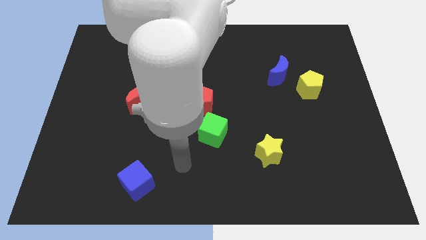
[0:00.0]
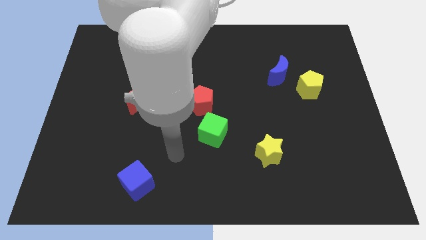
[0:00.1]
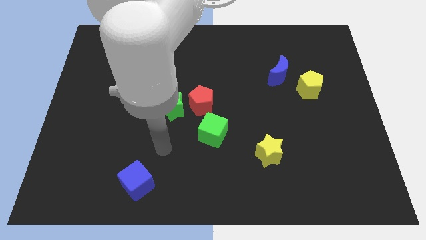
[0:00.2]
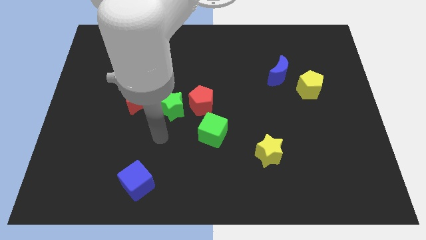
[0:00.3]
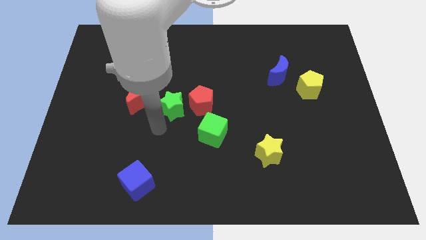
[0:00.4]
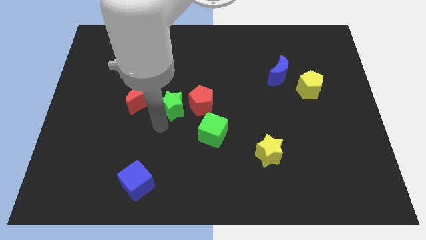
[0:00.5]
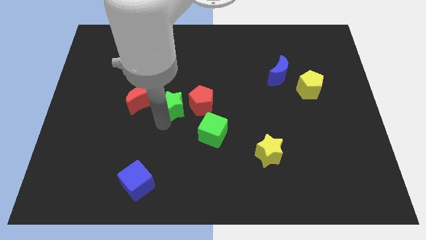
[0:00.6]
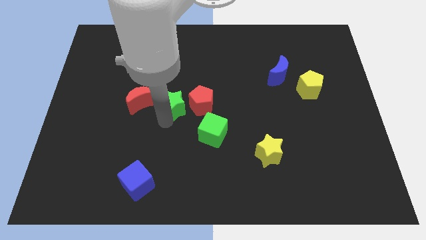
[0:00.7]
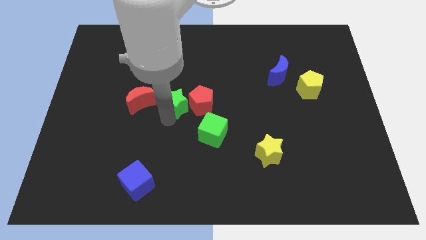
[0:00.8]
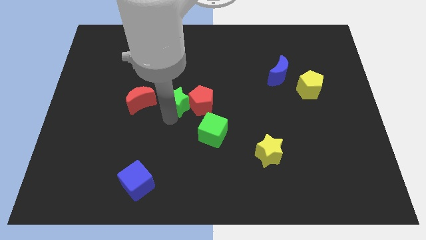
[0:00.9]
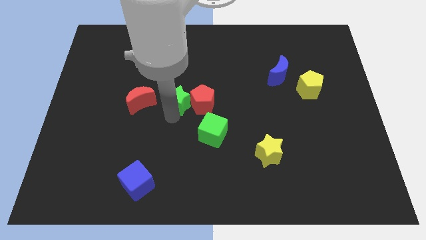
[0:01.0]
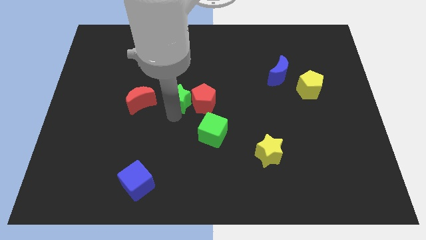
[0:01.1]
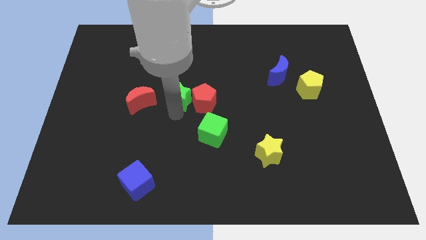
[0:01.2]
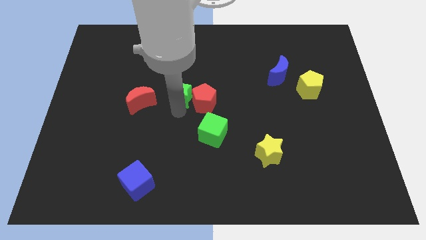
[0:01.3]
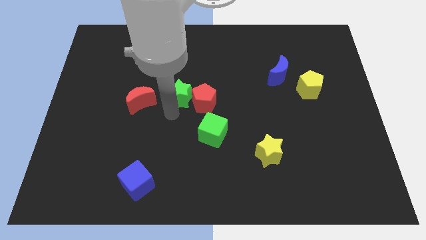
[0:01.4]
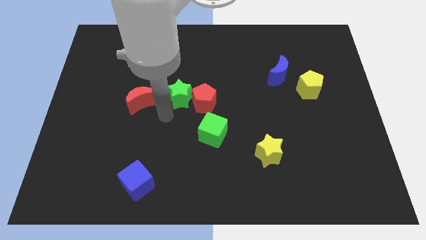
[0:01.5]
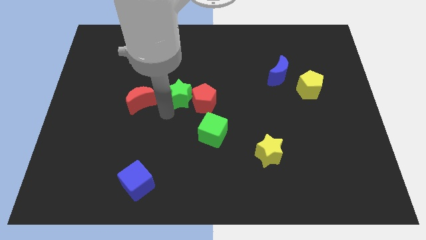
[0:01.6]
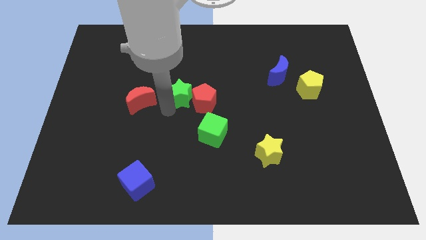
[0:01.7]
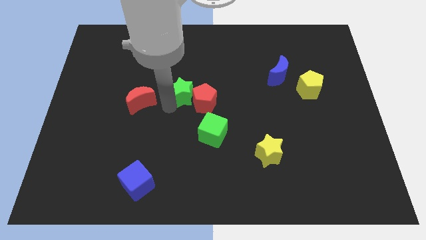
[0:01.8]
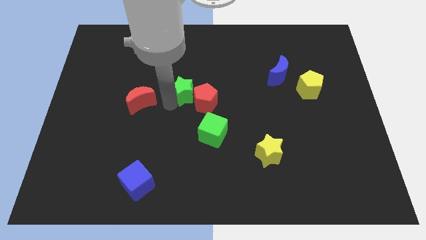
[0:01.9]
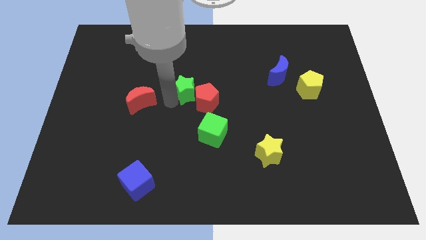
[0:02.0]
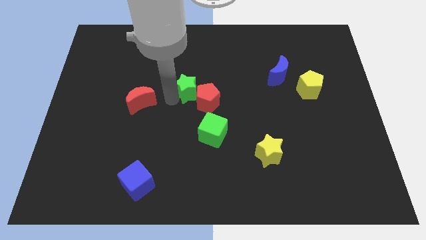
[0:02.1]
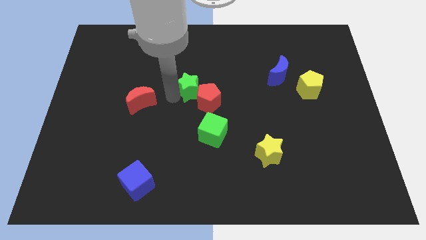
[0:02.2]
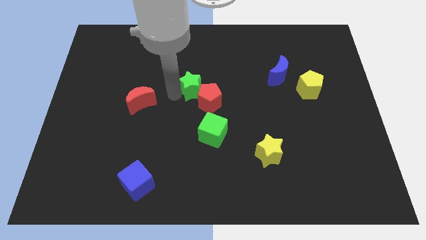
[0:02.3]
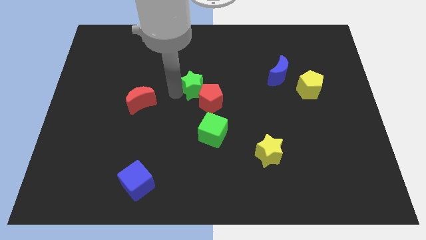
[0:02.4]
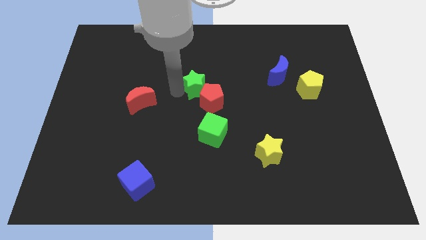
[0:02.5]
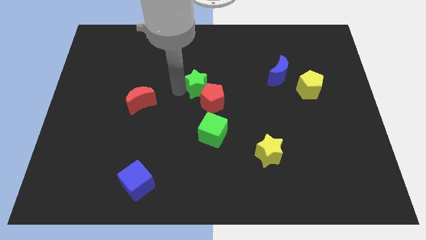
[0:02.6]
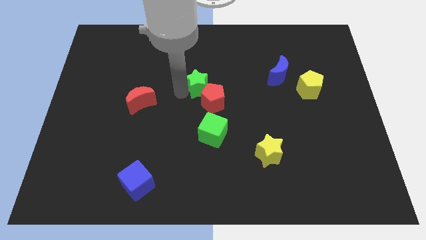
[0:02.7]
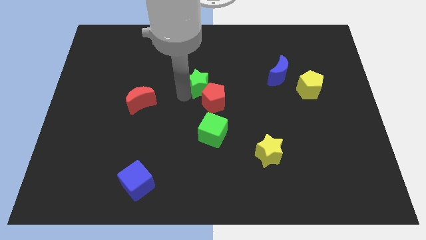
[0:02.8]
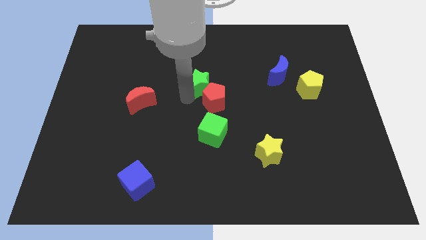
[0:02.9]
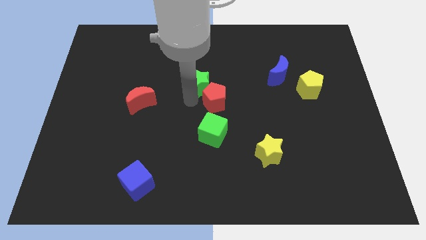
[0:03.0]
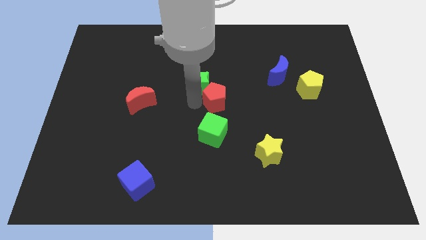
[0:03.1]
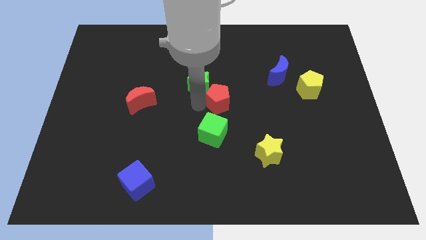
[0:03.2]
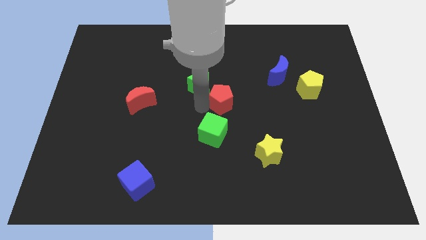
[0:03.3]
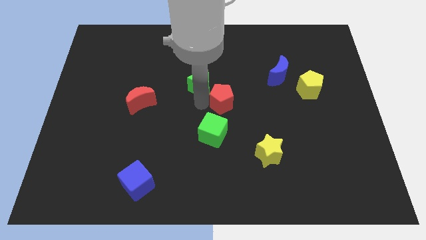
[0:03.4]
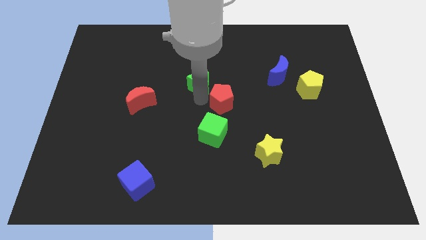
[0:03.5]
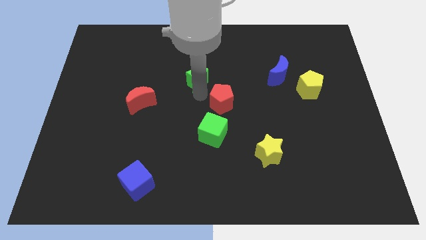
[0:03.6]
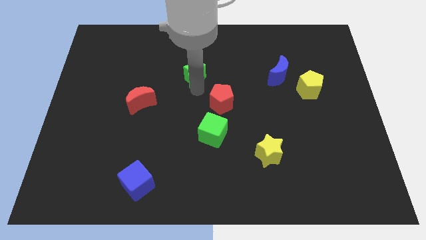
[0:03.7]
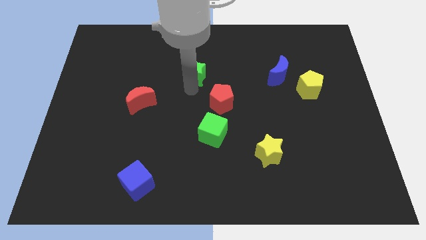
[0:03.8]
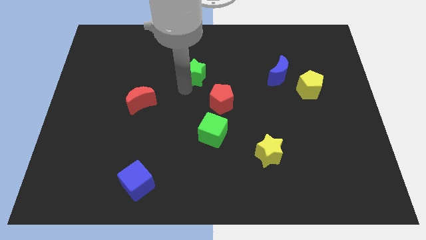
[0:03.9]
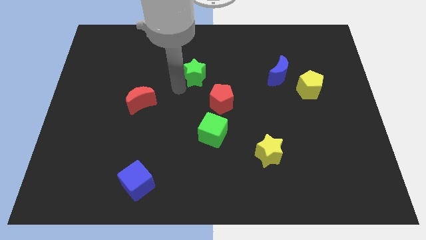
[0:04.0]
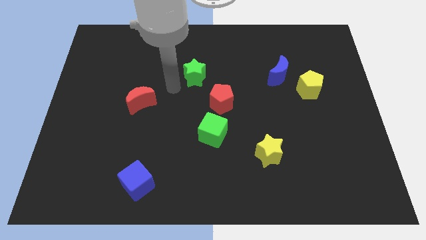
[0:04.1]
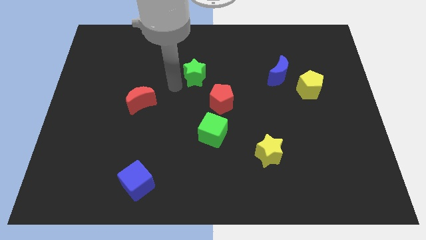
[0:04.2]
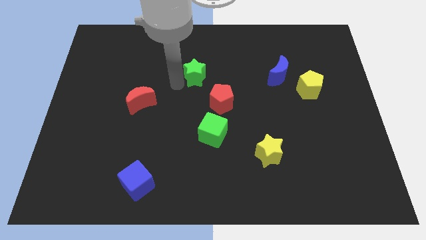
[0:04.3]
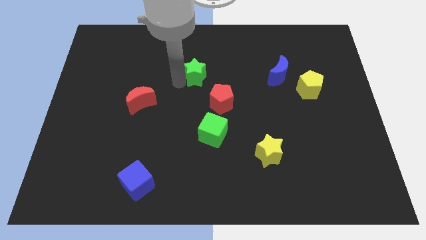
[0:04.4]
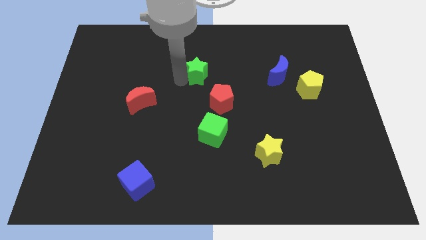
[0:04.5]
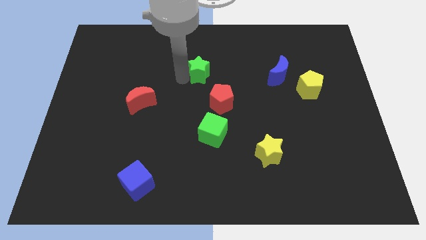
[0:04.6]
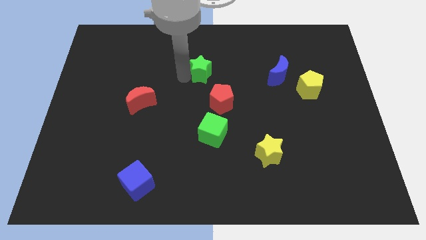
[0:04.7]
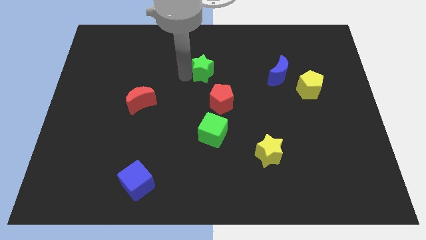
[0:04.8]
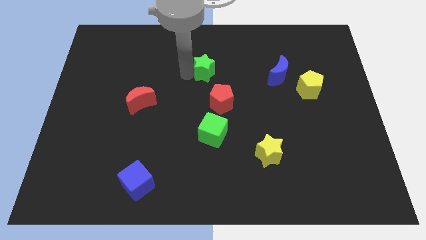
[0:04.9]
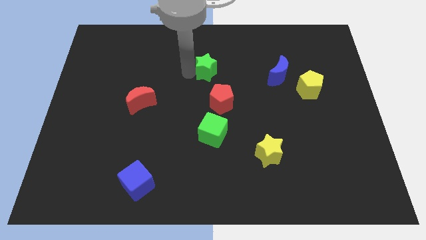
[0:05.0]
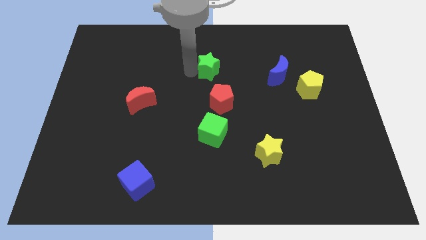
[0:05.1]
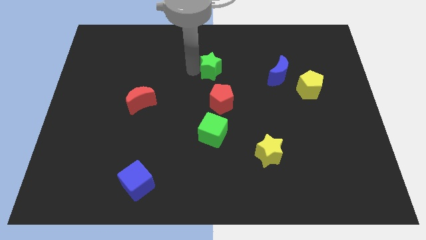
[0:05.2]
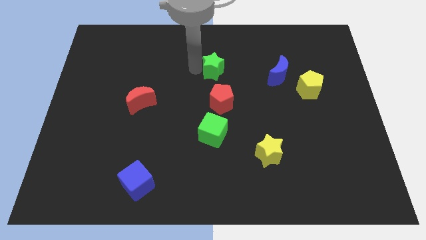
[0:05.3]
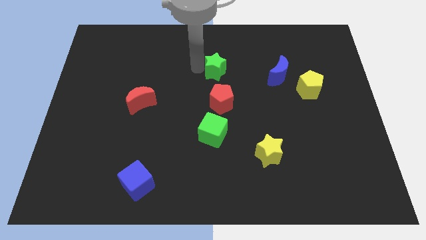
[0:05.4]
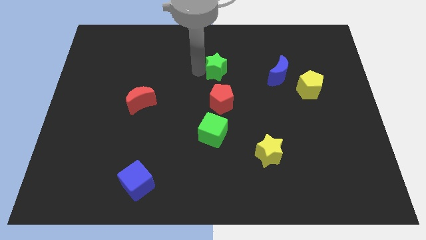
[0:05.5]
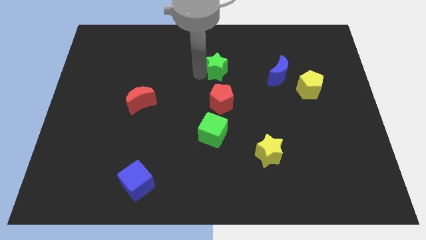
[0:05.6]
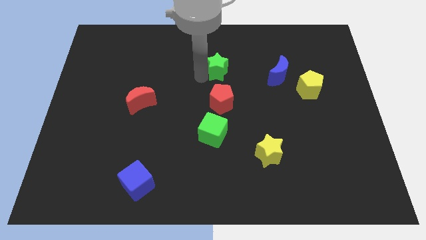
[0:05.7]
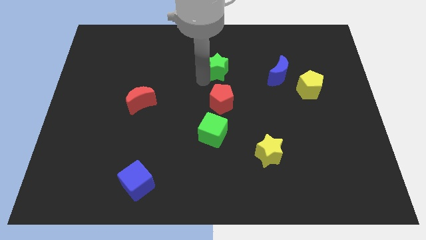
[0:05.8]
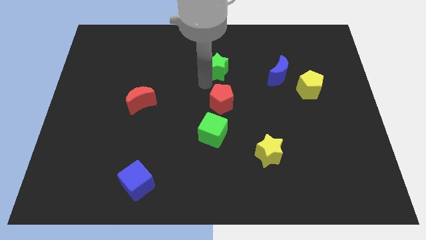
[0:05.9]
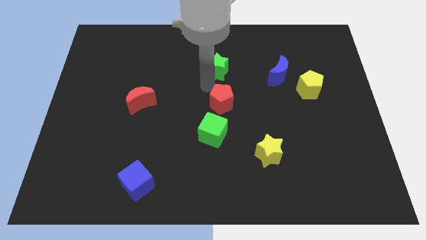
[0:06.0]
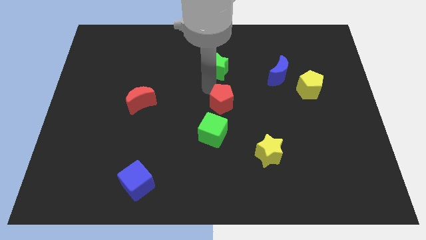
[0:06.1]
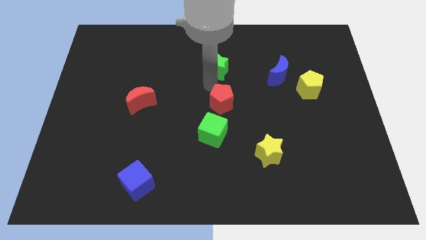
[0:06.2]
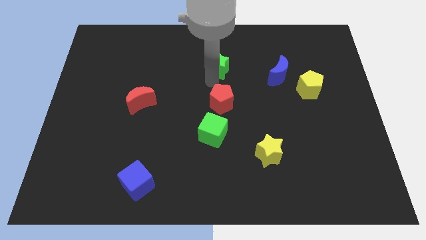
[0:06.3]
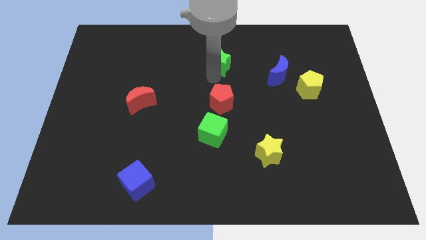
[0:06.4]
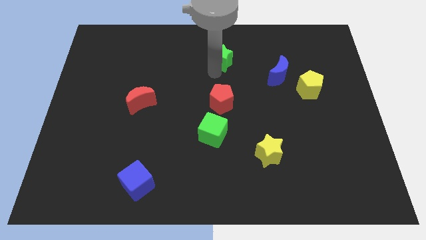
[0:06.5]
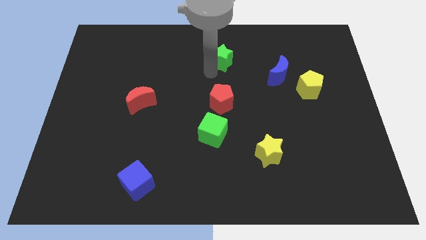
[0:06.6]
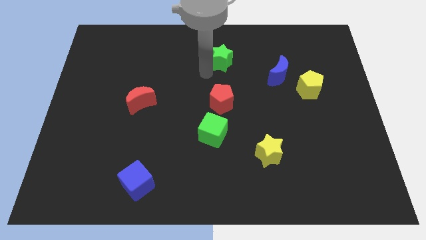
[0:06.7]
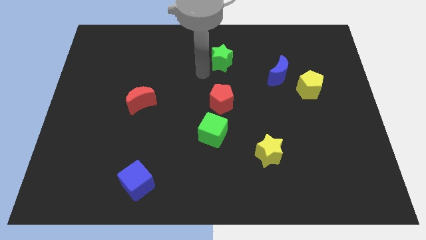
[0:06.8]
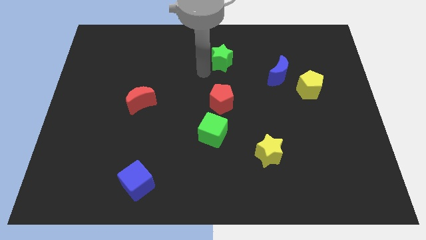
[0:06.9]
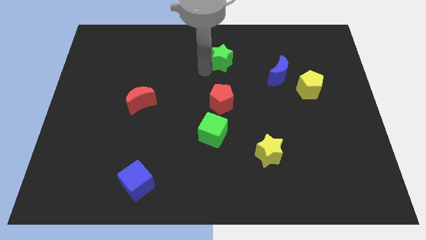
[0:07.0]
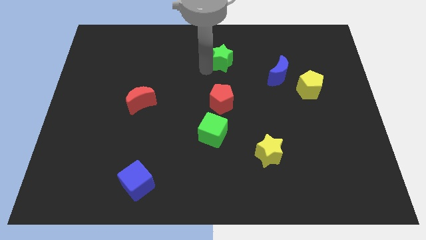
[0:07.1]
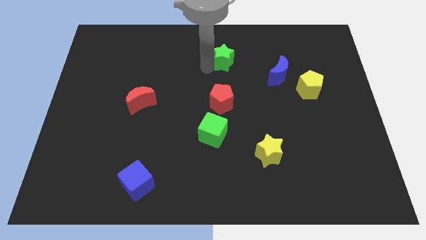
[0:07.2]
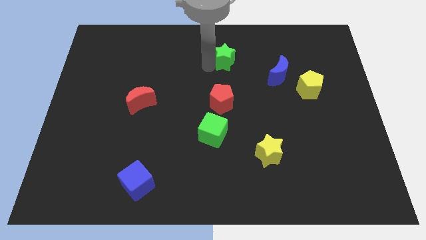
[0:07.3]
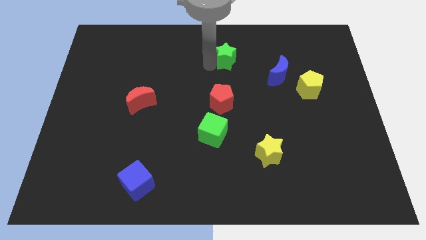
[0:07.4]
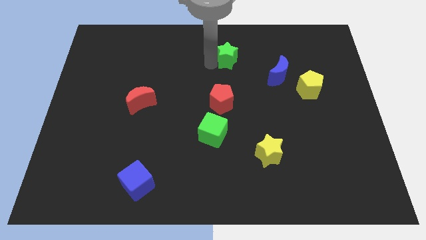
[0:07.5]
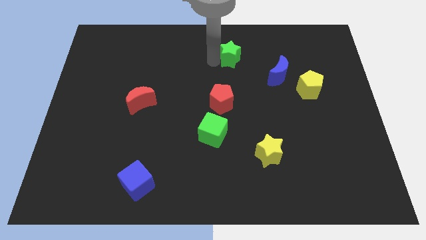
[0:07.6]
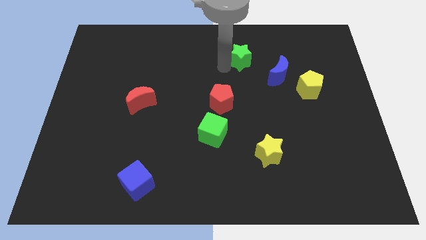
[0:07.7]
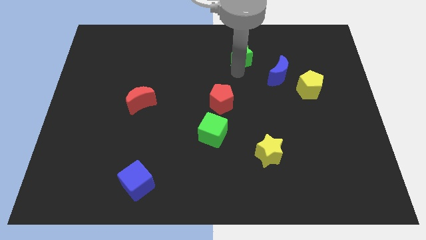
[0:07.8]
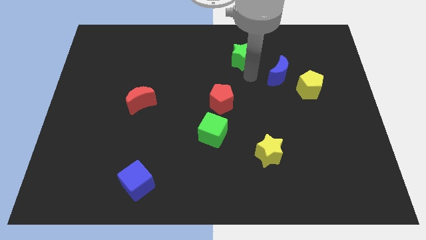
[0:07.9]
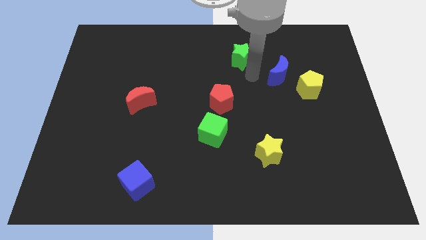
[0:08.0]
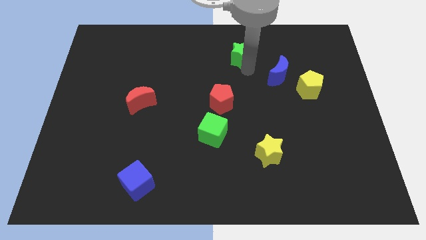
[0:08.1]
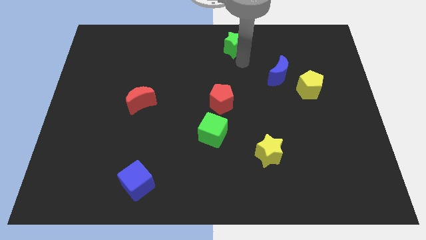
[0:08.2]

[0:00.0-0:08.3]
push the green star to the towards your base
